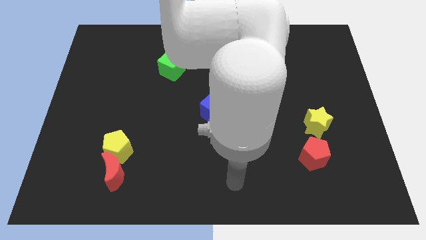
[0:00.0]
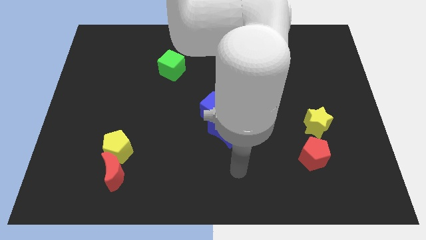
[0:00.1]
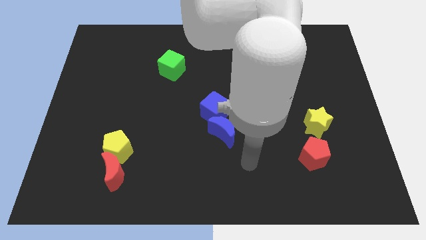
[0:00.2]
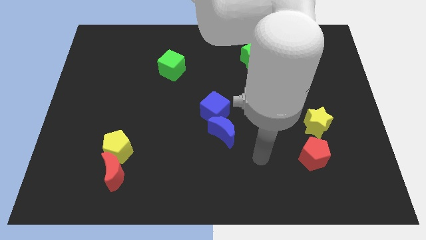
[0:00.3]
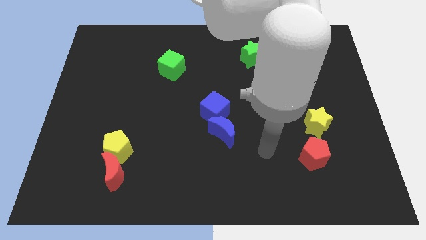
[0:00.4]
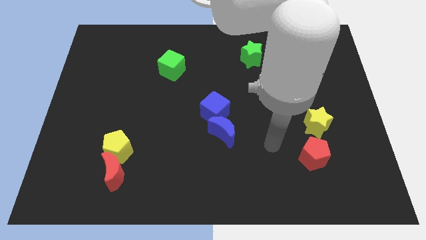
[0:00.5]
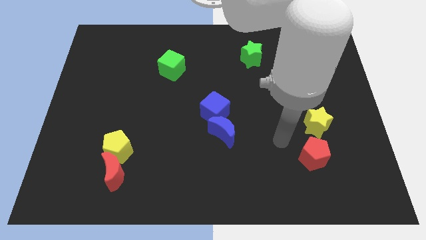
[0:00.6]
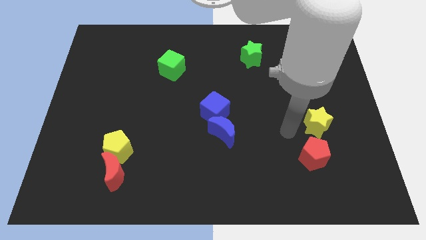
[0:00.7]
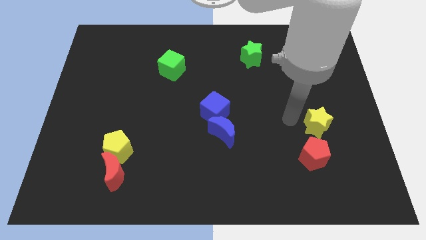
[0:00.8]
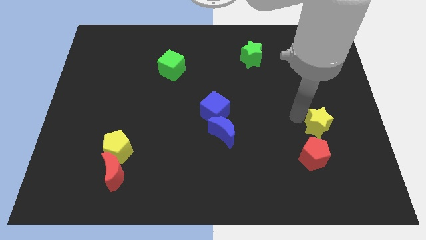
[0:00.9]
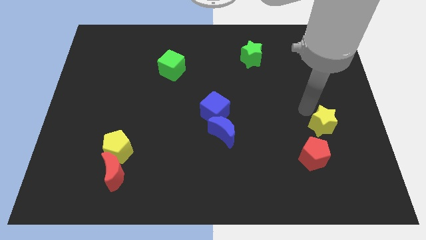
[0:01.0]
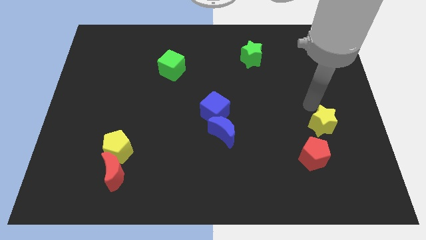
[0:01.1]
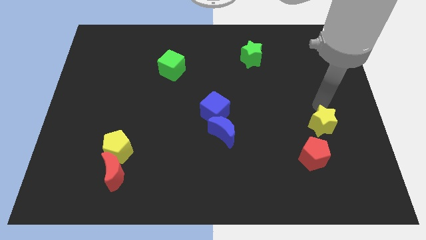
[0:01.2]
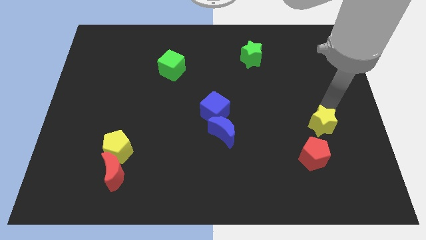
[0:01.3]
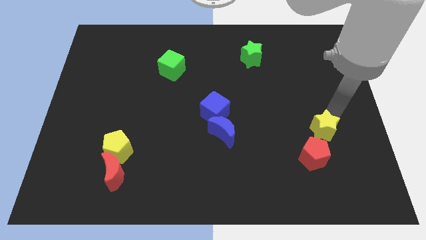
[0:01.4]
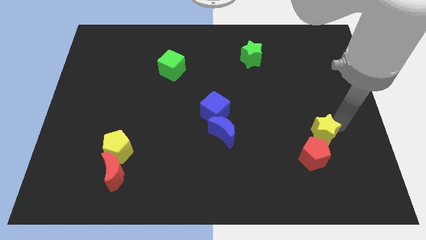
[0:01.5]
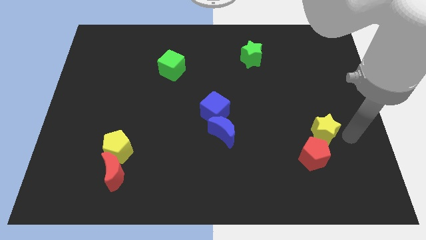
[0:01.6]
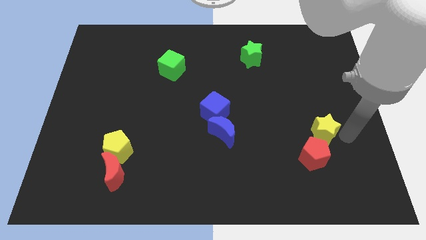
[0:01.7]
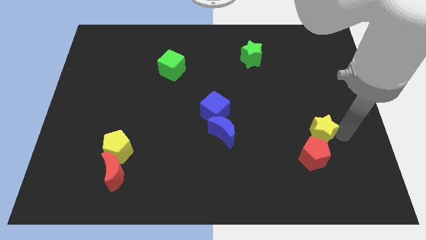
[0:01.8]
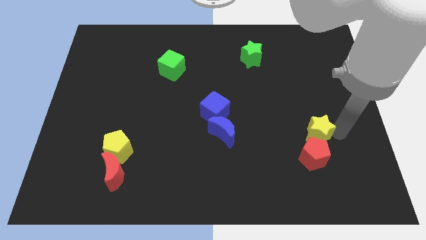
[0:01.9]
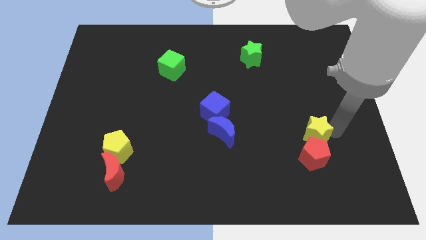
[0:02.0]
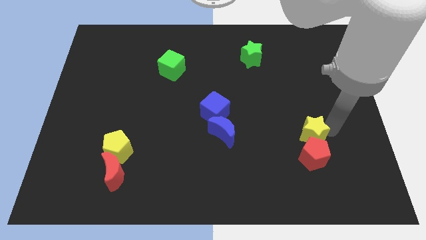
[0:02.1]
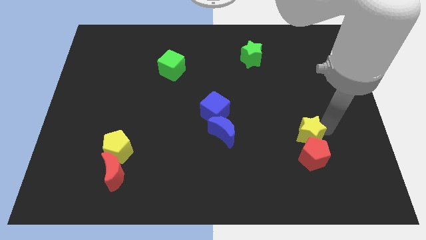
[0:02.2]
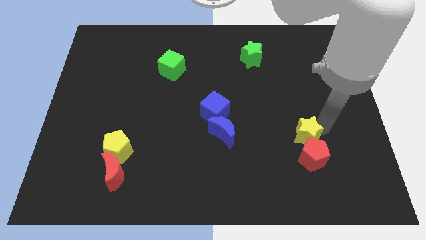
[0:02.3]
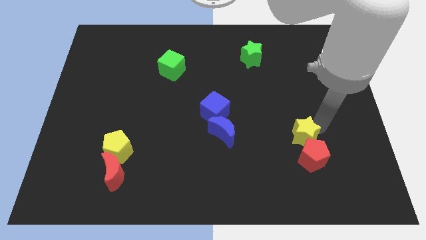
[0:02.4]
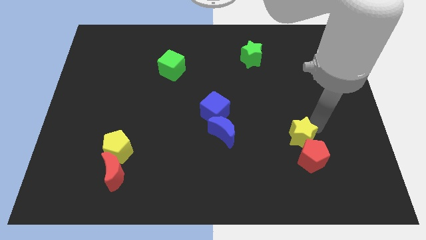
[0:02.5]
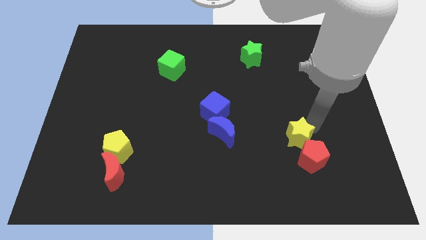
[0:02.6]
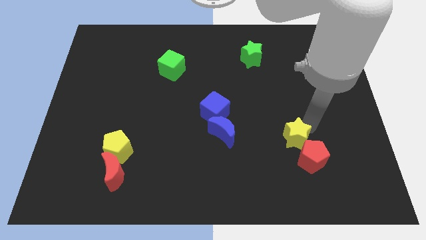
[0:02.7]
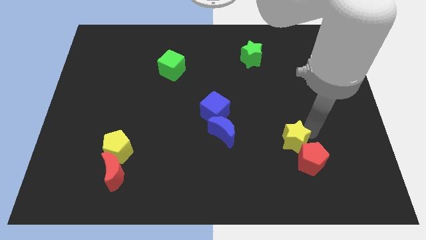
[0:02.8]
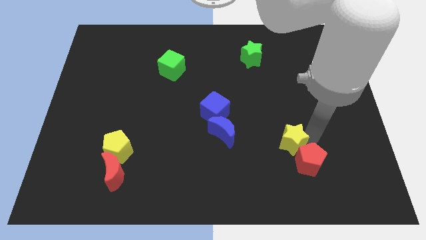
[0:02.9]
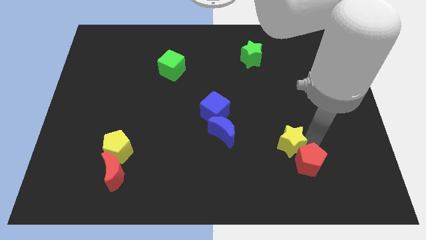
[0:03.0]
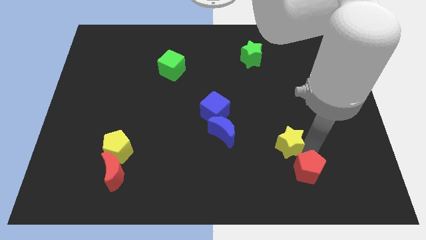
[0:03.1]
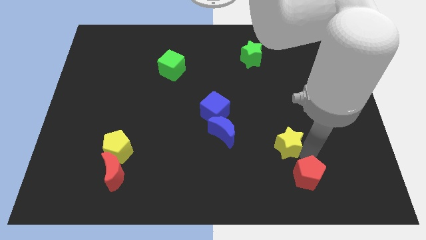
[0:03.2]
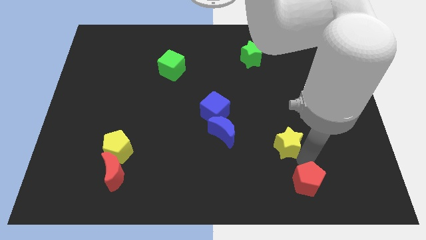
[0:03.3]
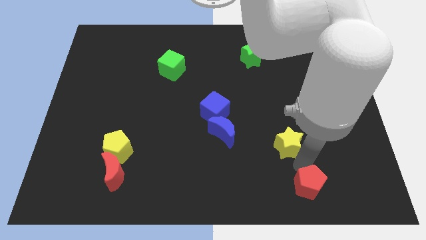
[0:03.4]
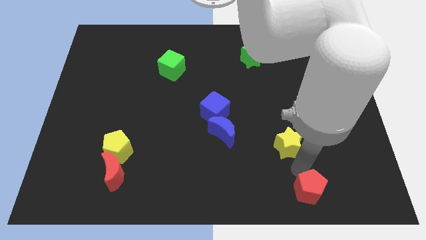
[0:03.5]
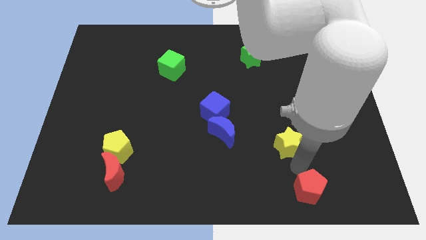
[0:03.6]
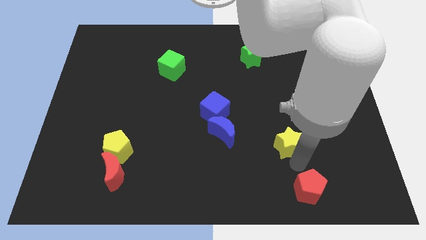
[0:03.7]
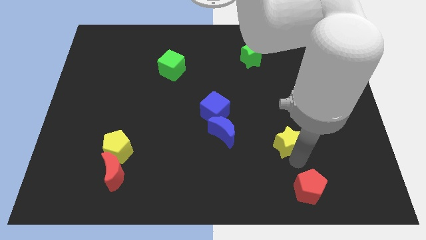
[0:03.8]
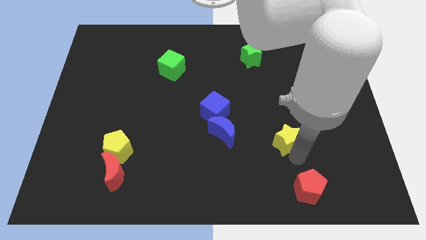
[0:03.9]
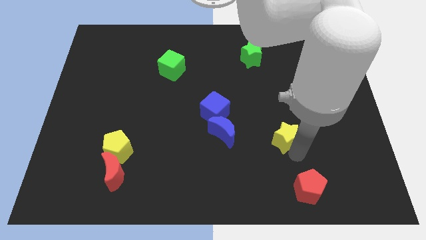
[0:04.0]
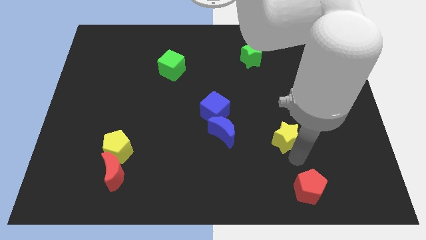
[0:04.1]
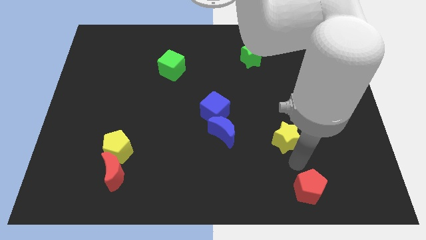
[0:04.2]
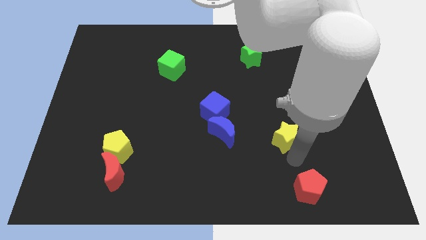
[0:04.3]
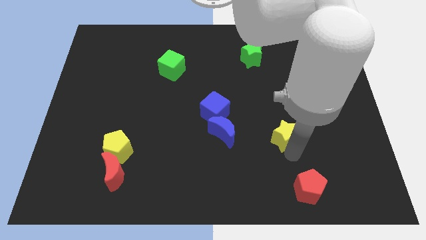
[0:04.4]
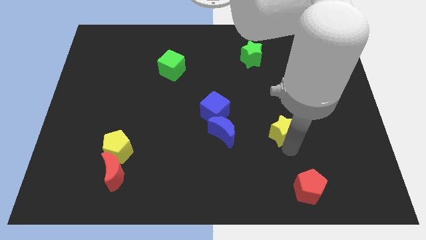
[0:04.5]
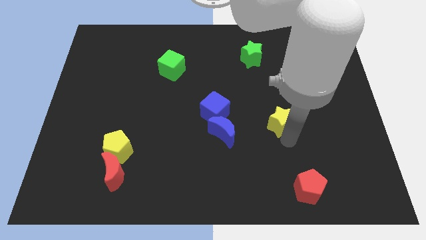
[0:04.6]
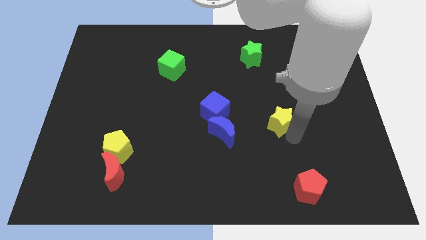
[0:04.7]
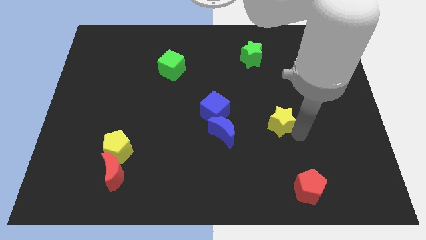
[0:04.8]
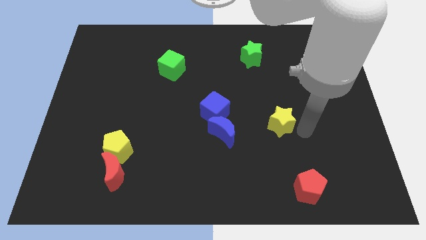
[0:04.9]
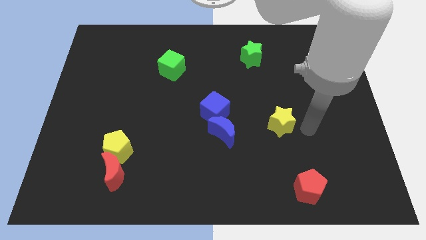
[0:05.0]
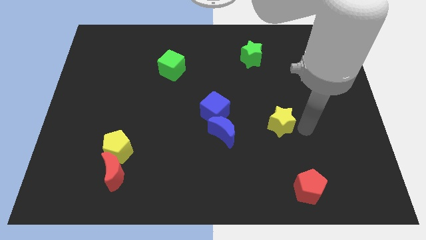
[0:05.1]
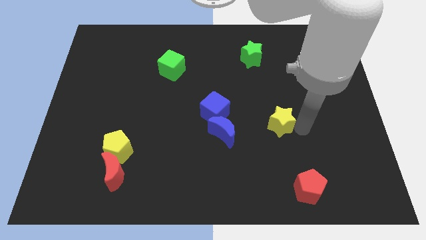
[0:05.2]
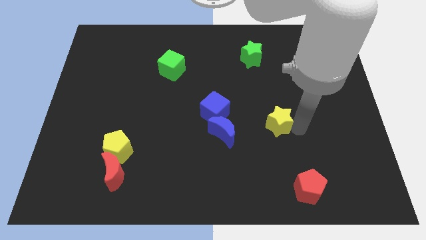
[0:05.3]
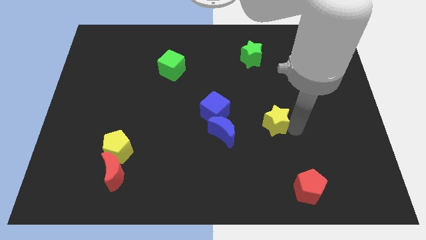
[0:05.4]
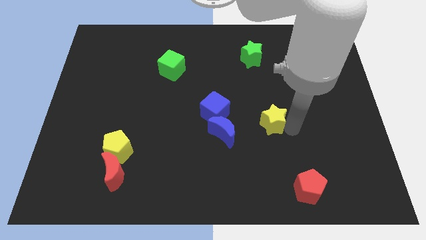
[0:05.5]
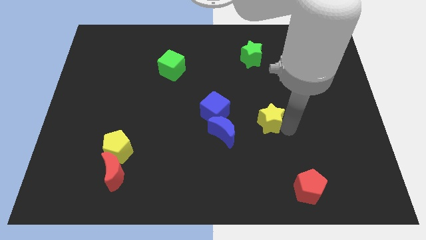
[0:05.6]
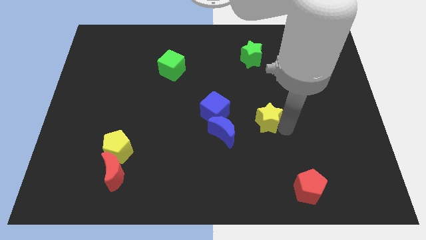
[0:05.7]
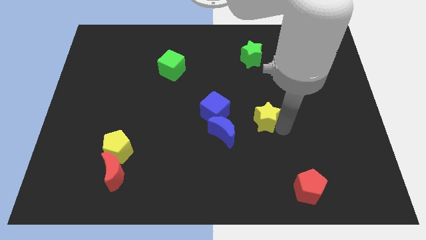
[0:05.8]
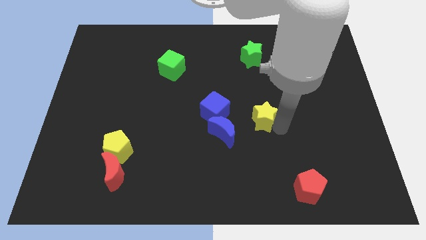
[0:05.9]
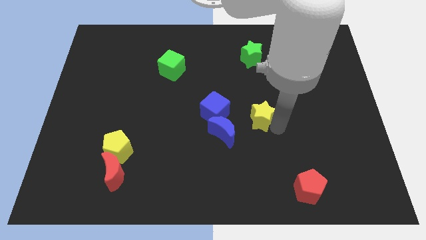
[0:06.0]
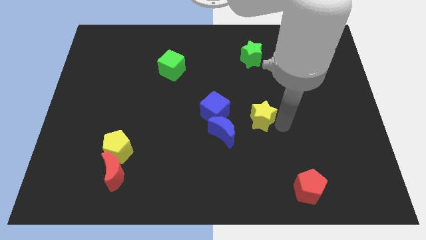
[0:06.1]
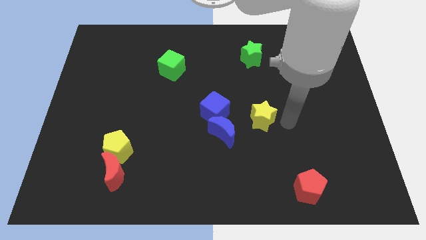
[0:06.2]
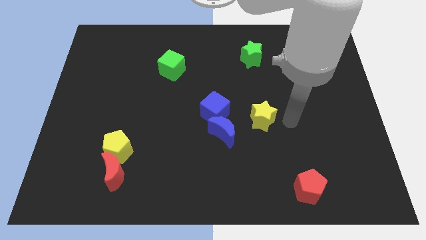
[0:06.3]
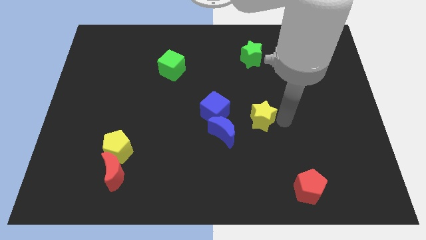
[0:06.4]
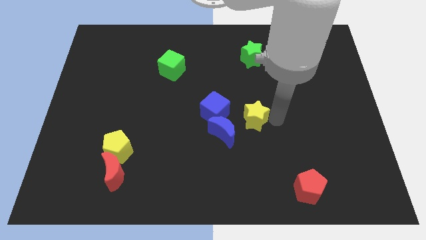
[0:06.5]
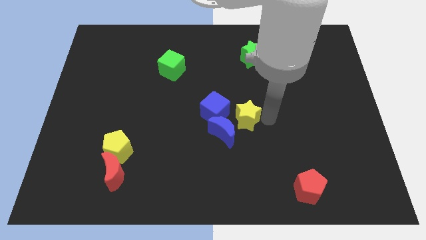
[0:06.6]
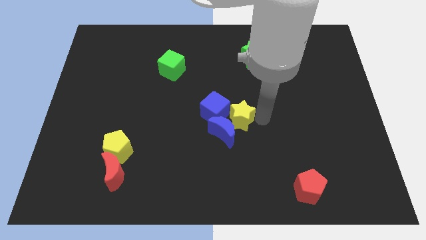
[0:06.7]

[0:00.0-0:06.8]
push the yellow star next to the blue cube
